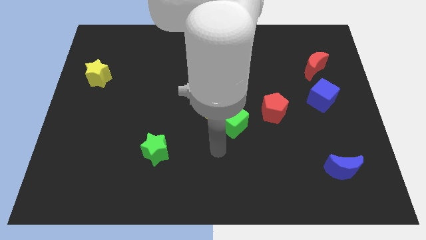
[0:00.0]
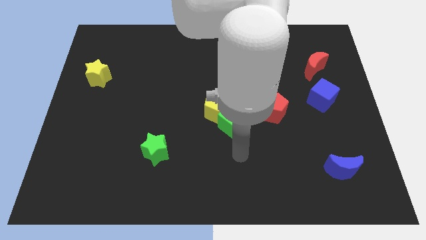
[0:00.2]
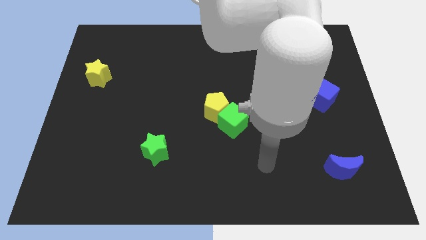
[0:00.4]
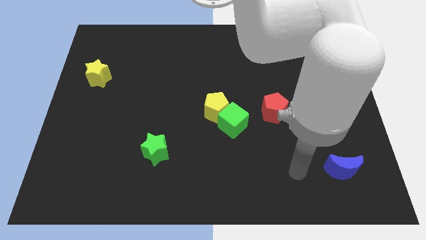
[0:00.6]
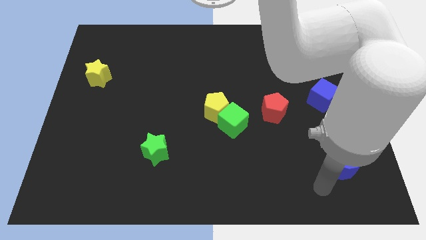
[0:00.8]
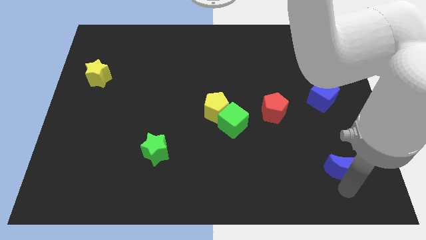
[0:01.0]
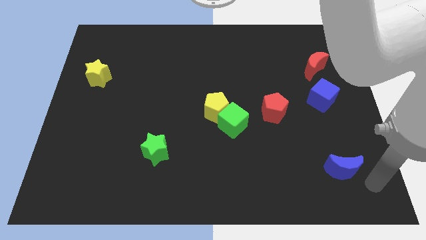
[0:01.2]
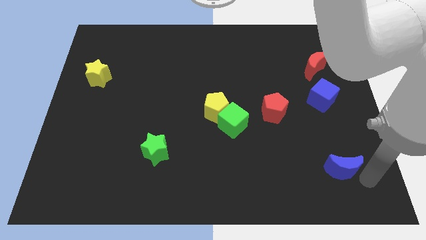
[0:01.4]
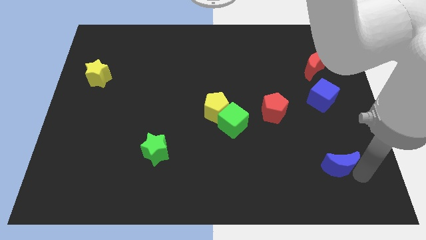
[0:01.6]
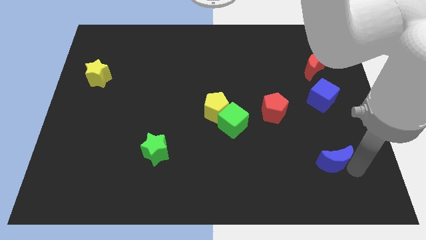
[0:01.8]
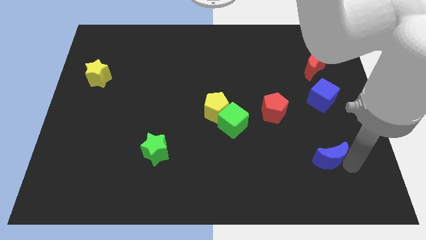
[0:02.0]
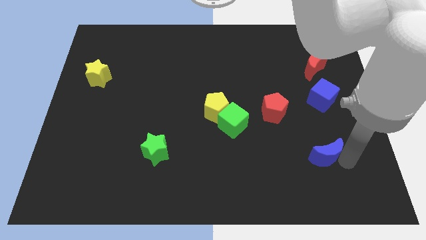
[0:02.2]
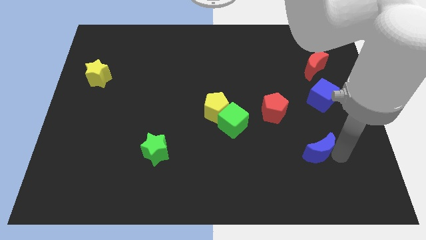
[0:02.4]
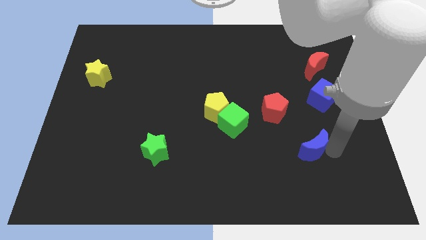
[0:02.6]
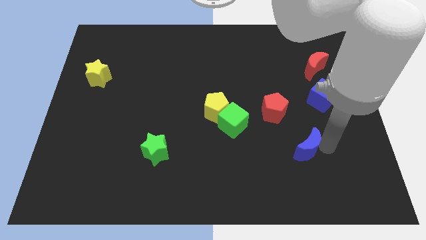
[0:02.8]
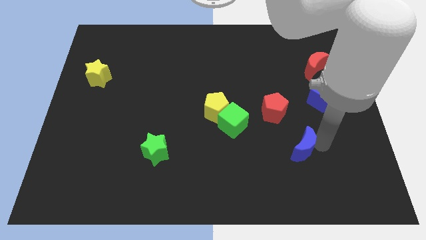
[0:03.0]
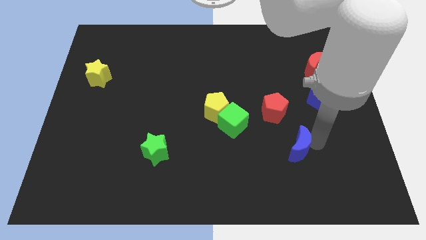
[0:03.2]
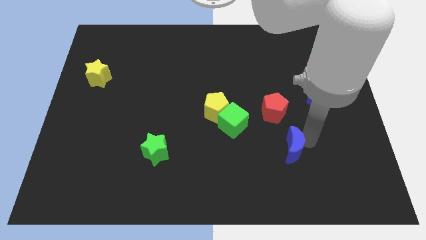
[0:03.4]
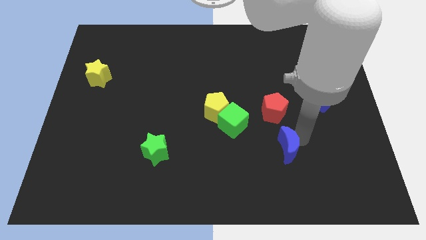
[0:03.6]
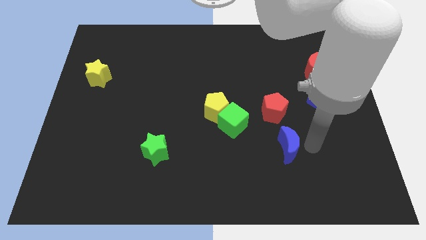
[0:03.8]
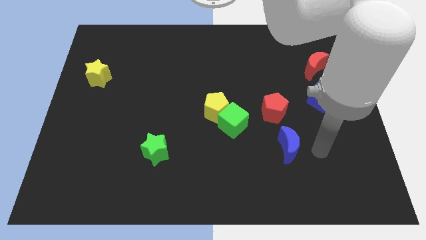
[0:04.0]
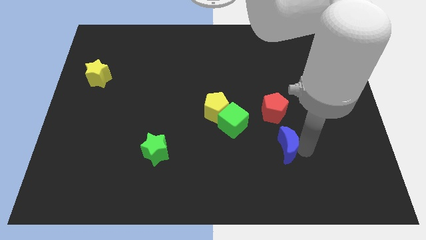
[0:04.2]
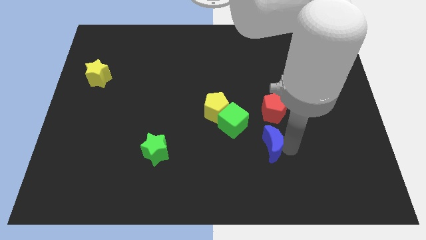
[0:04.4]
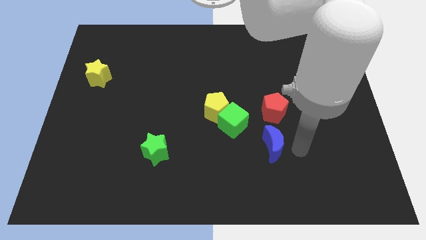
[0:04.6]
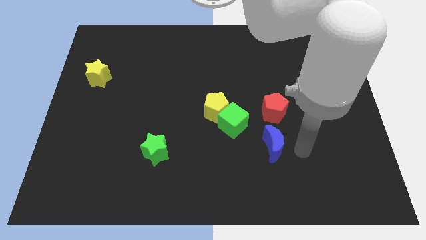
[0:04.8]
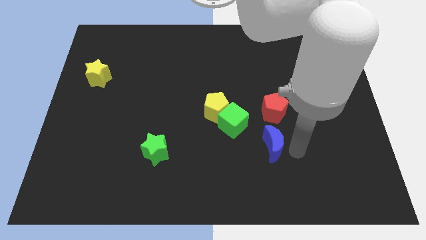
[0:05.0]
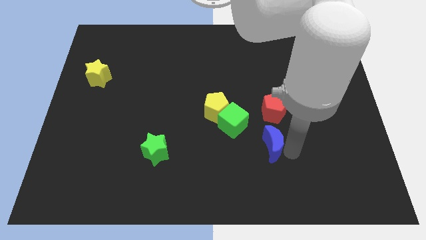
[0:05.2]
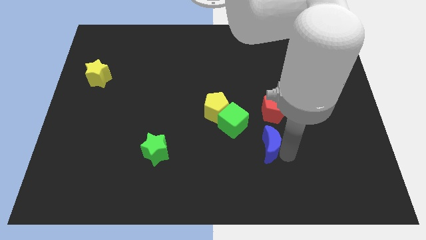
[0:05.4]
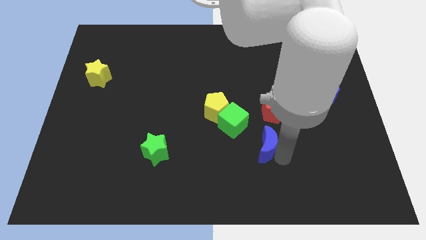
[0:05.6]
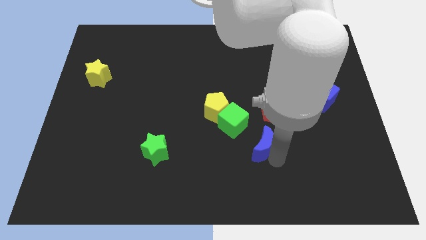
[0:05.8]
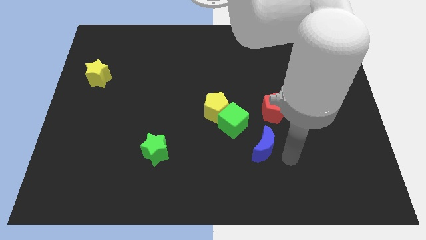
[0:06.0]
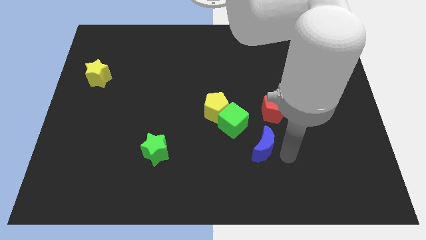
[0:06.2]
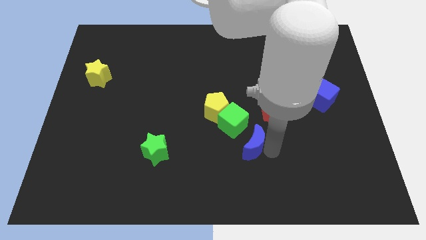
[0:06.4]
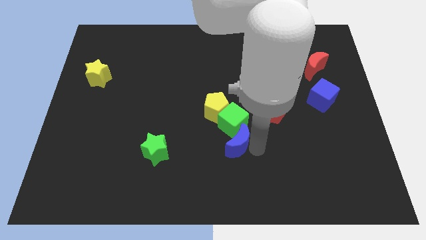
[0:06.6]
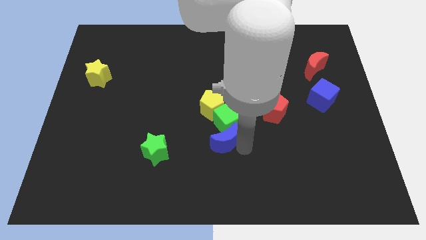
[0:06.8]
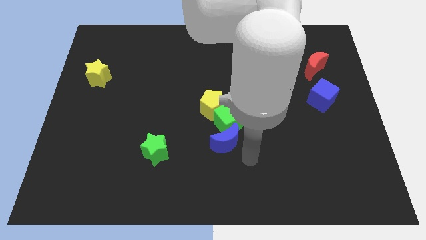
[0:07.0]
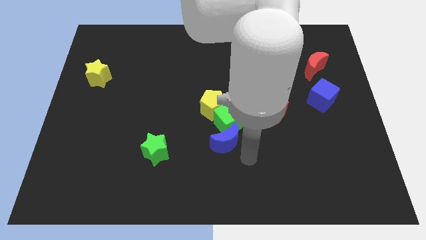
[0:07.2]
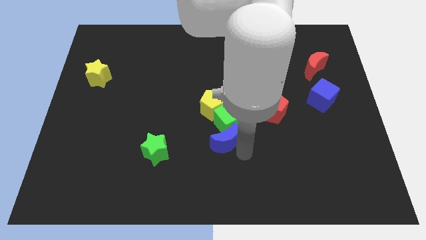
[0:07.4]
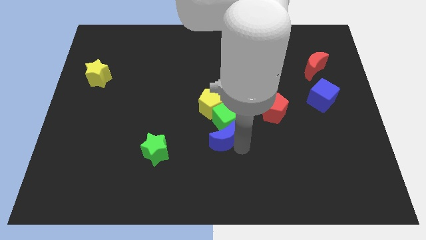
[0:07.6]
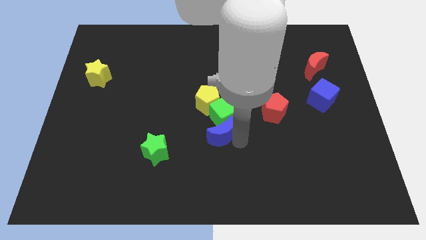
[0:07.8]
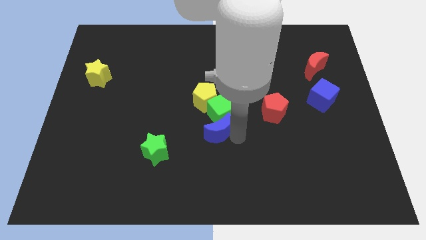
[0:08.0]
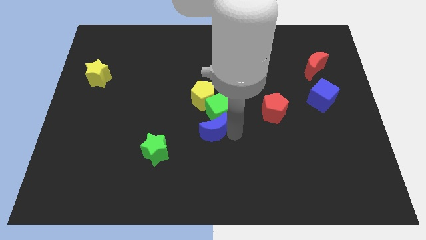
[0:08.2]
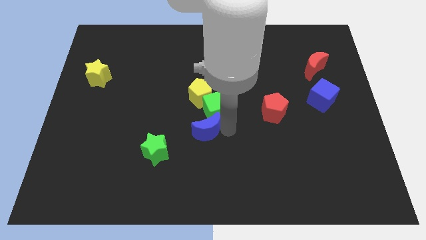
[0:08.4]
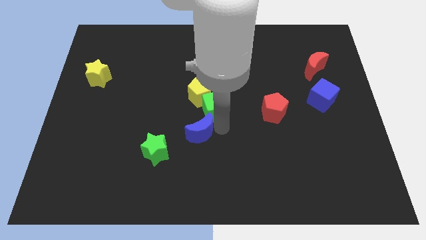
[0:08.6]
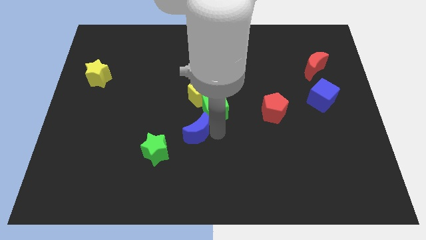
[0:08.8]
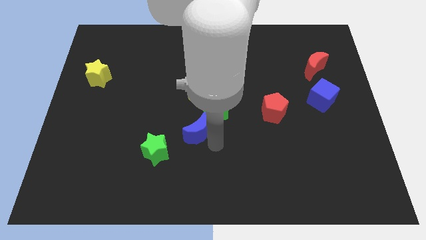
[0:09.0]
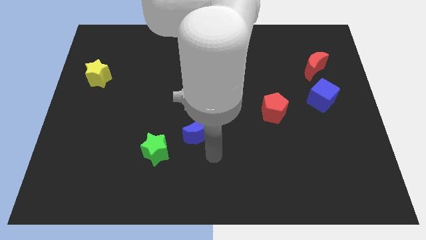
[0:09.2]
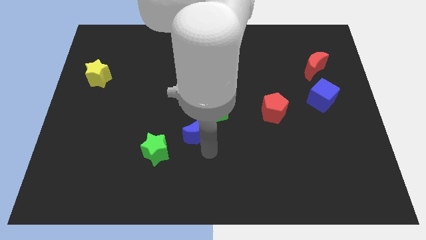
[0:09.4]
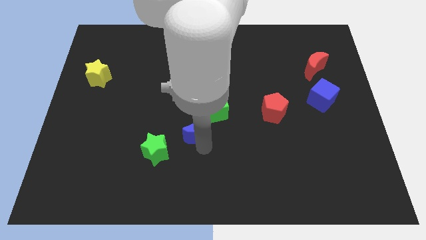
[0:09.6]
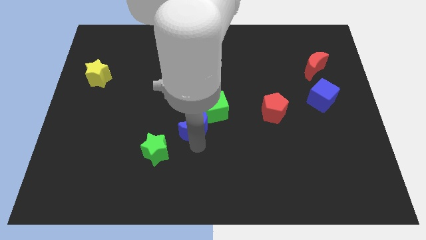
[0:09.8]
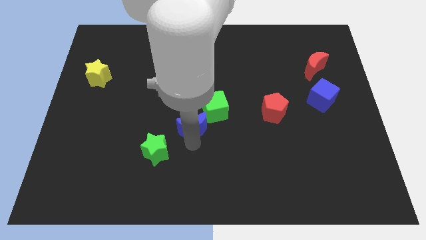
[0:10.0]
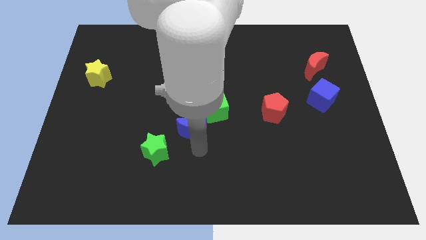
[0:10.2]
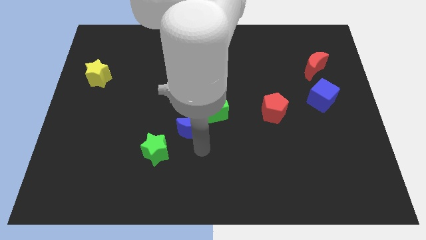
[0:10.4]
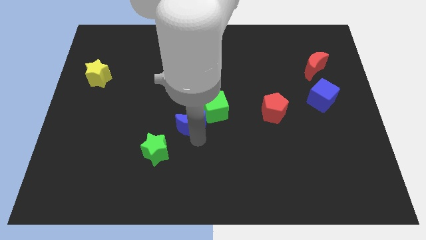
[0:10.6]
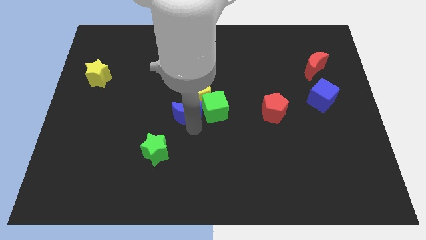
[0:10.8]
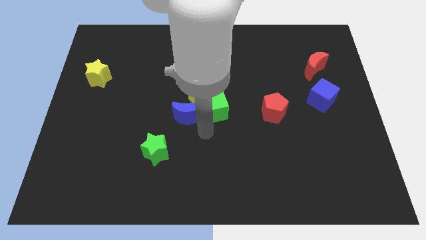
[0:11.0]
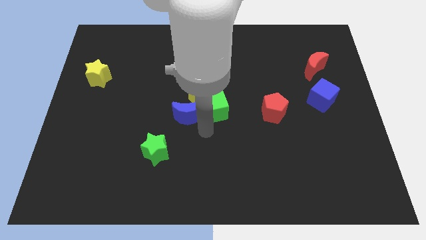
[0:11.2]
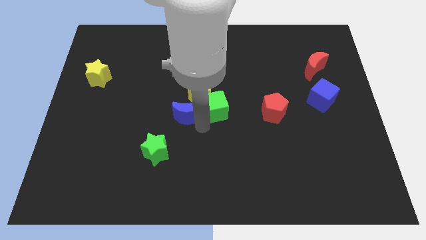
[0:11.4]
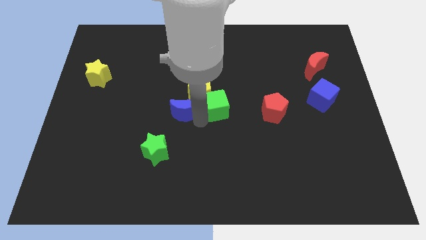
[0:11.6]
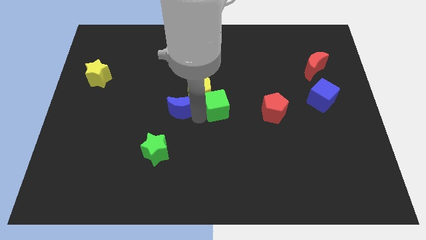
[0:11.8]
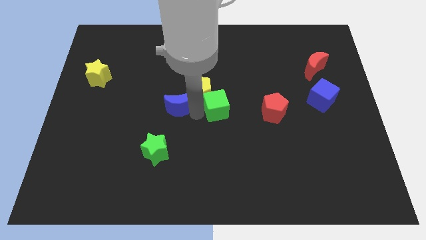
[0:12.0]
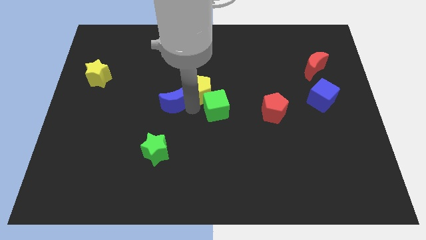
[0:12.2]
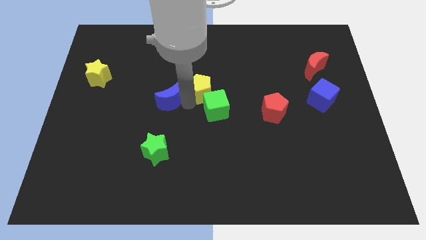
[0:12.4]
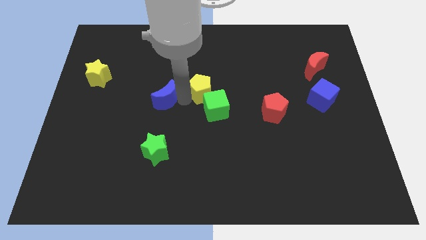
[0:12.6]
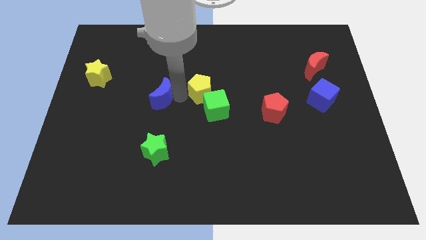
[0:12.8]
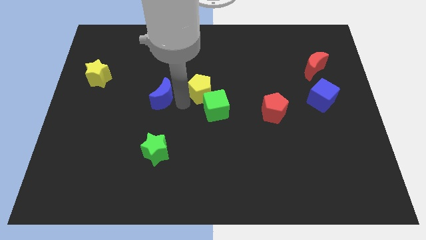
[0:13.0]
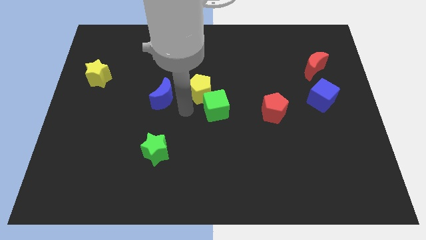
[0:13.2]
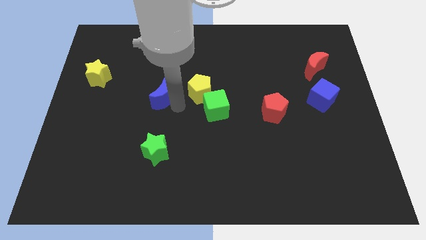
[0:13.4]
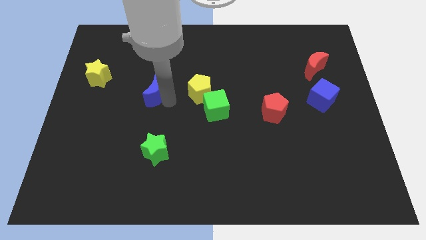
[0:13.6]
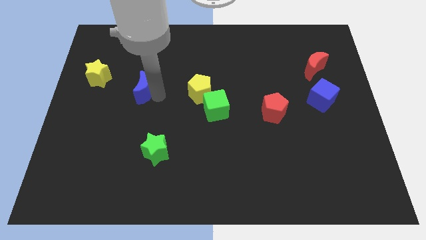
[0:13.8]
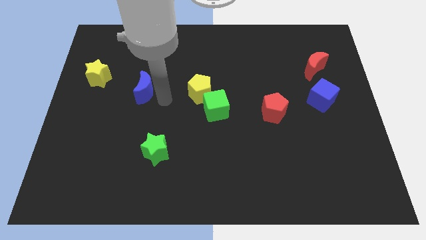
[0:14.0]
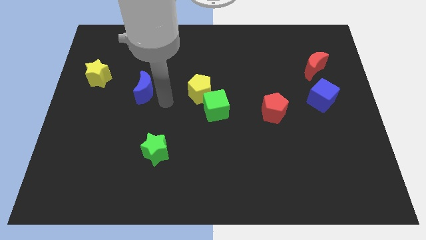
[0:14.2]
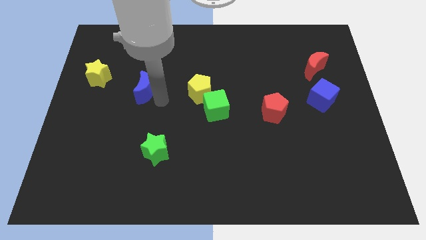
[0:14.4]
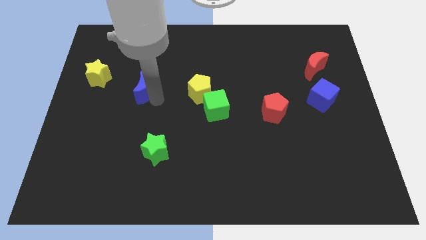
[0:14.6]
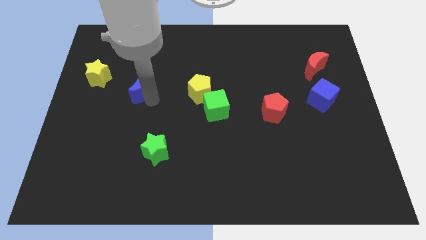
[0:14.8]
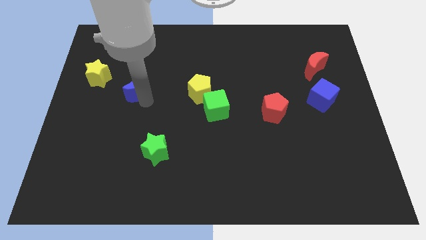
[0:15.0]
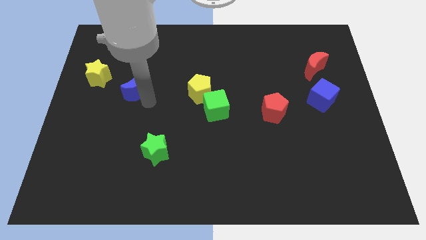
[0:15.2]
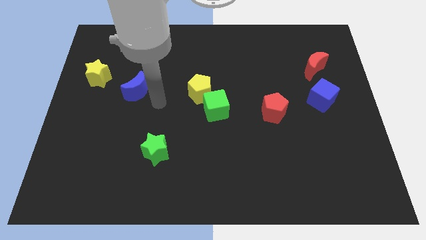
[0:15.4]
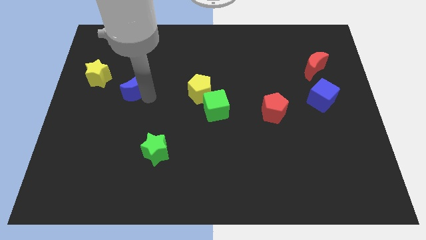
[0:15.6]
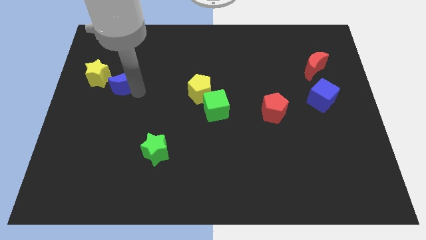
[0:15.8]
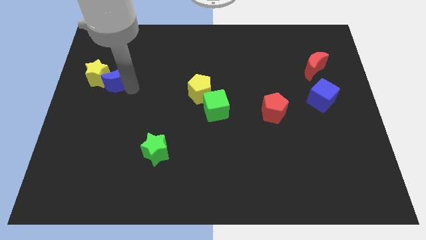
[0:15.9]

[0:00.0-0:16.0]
put the blue moon next to the yellow star
